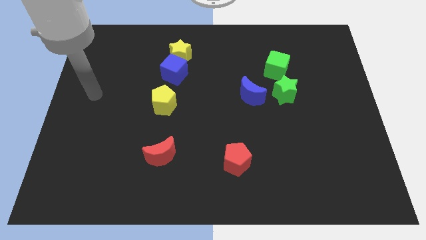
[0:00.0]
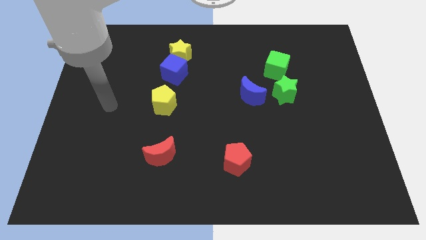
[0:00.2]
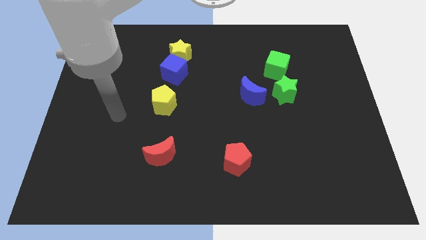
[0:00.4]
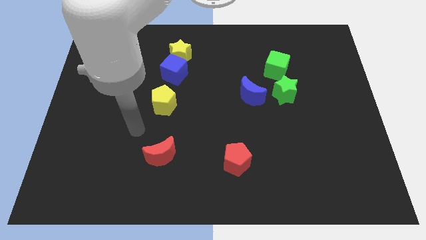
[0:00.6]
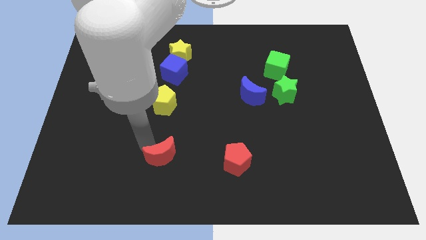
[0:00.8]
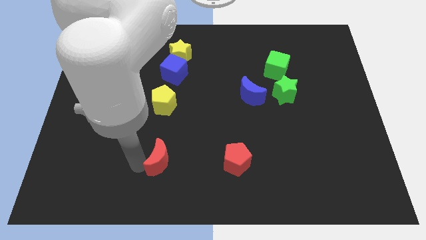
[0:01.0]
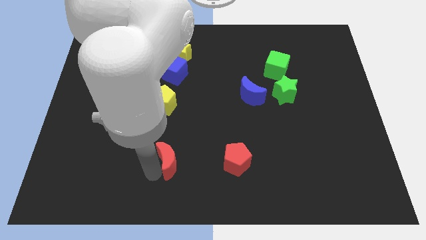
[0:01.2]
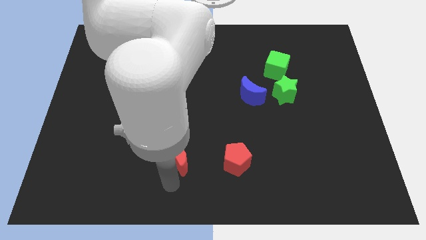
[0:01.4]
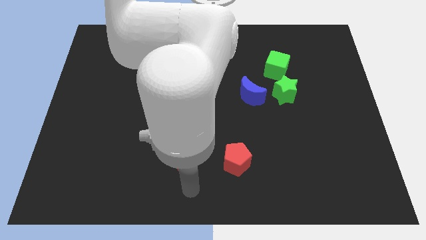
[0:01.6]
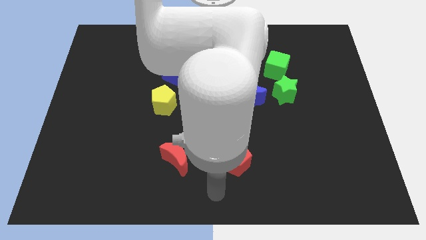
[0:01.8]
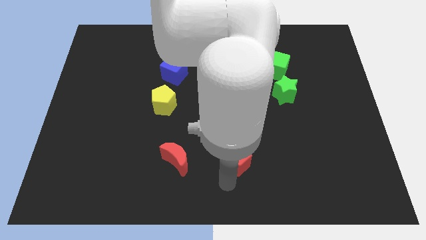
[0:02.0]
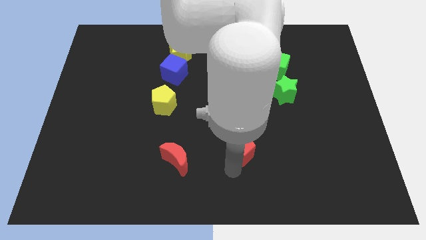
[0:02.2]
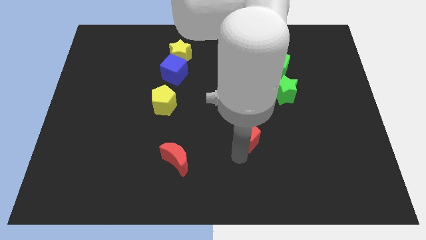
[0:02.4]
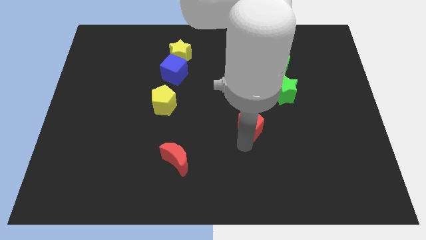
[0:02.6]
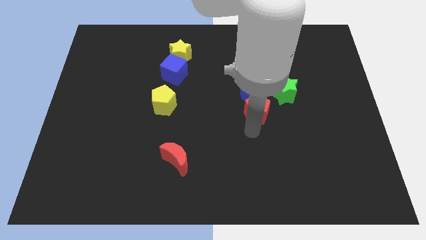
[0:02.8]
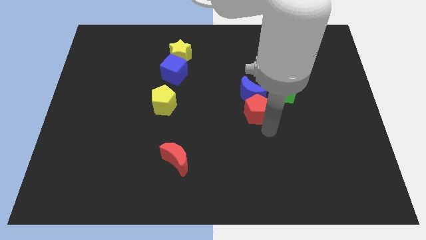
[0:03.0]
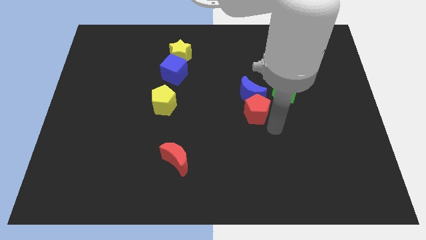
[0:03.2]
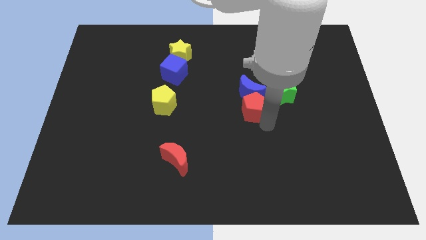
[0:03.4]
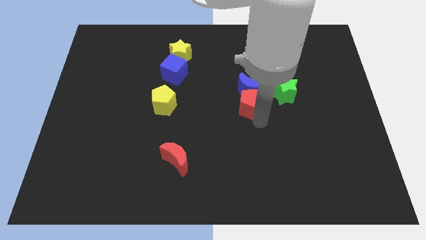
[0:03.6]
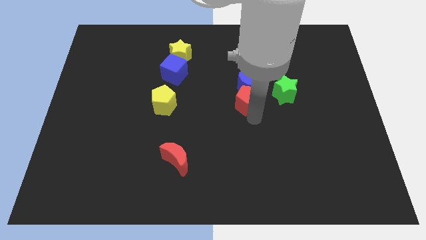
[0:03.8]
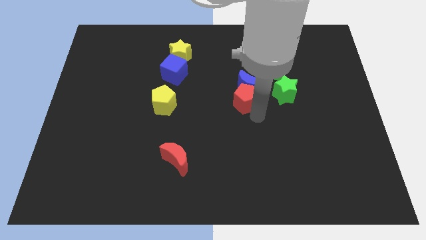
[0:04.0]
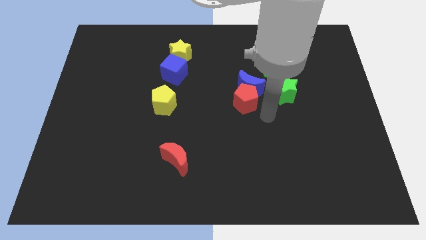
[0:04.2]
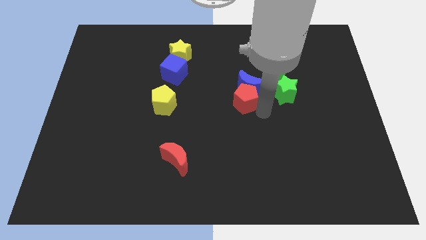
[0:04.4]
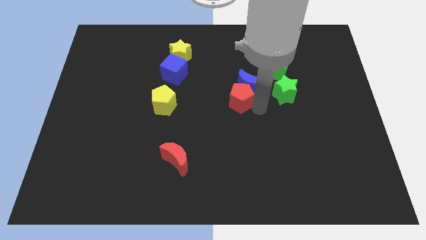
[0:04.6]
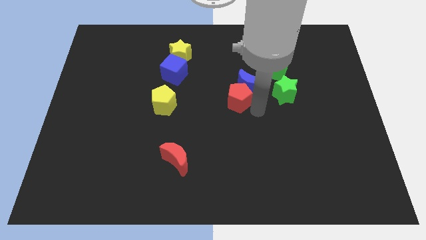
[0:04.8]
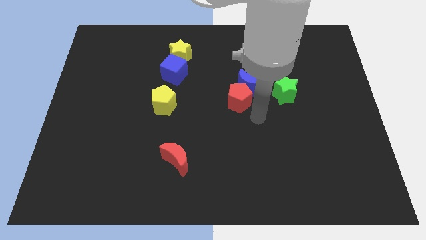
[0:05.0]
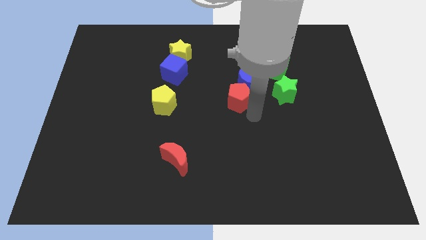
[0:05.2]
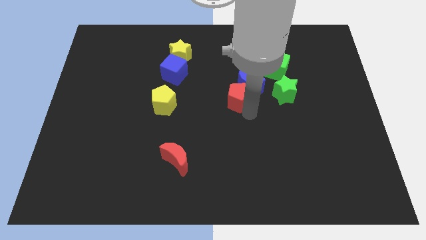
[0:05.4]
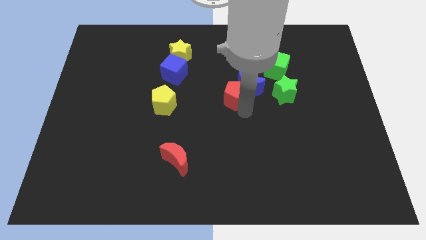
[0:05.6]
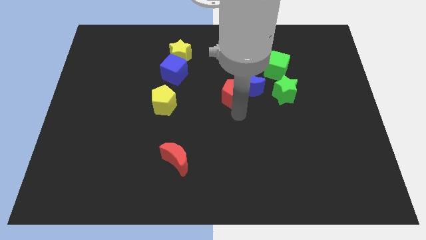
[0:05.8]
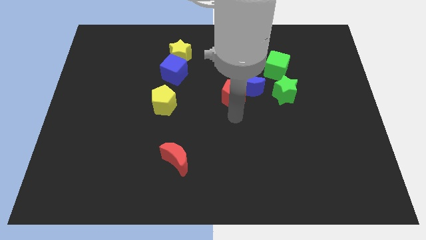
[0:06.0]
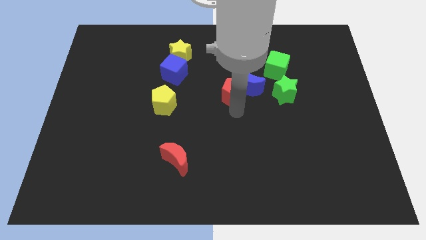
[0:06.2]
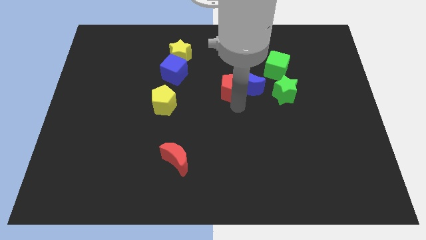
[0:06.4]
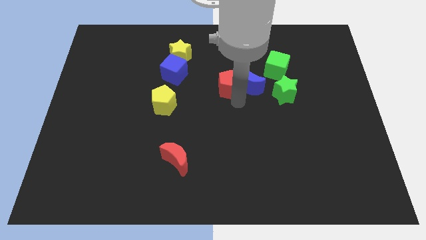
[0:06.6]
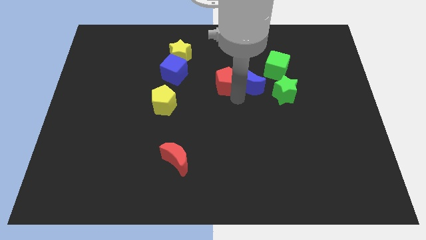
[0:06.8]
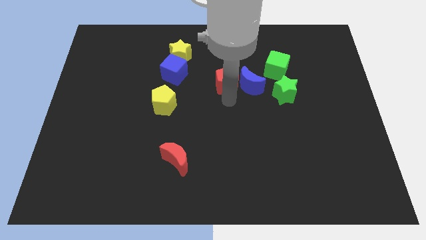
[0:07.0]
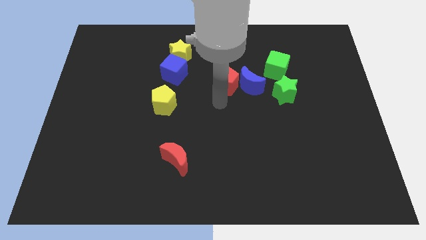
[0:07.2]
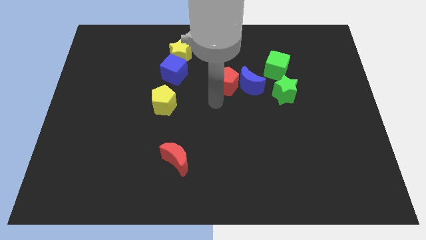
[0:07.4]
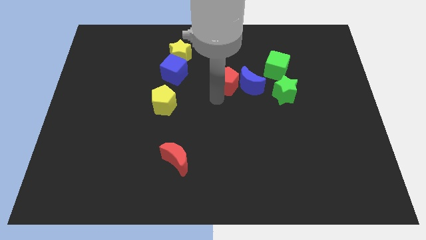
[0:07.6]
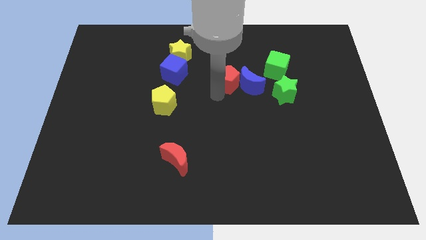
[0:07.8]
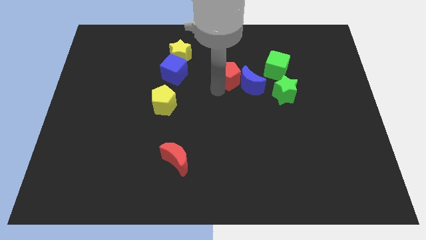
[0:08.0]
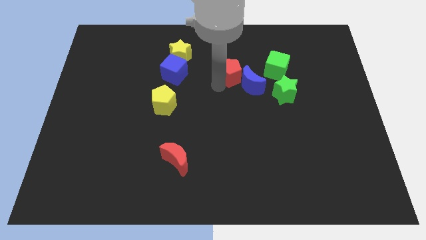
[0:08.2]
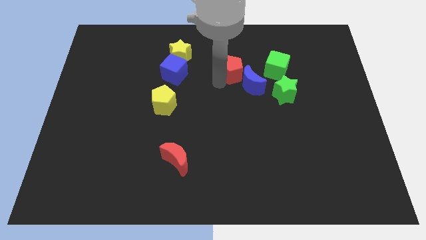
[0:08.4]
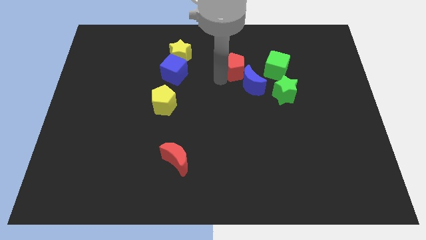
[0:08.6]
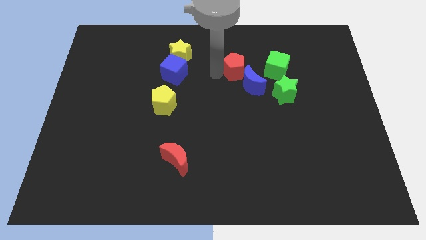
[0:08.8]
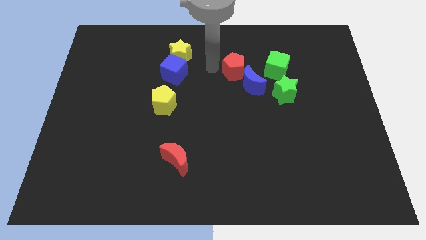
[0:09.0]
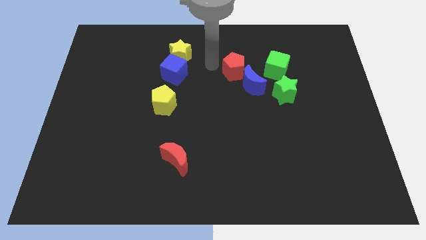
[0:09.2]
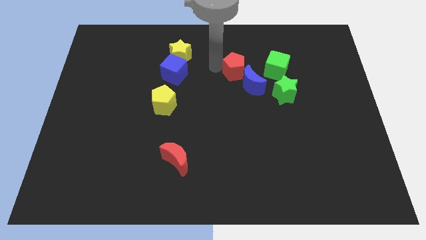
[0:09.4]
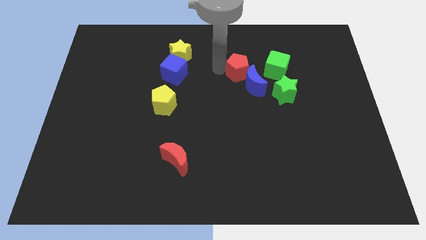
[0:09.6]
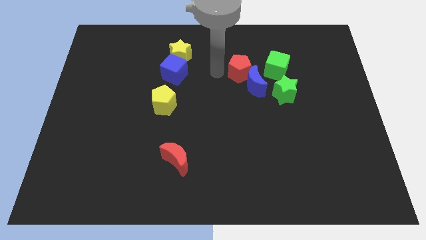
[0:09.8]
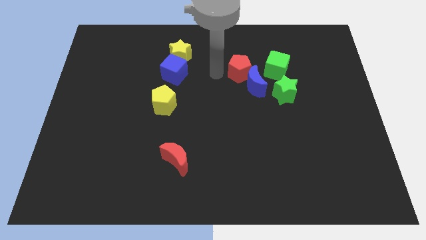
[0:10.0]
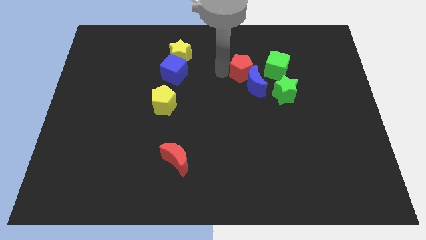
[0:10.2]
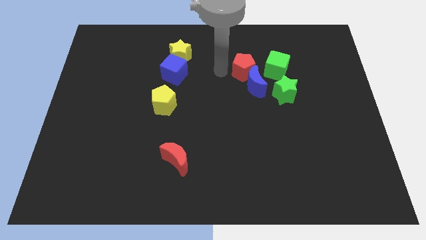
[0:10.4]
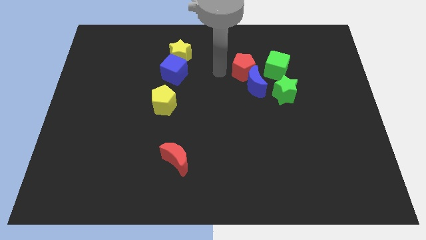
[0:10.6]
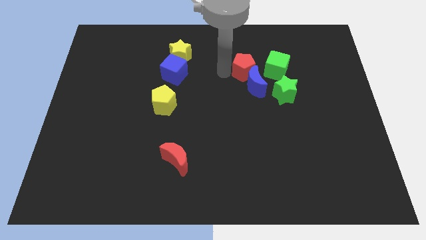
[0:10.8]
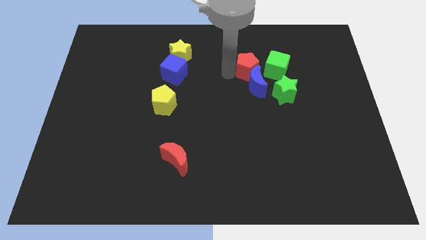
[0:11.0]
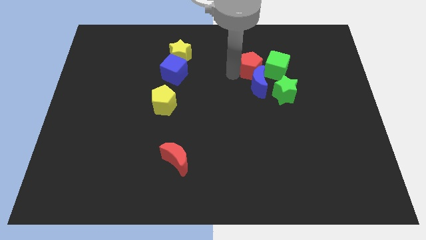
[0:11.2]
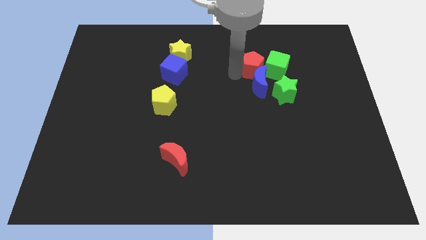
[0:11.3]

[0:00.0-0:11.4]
push the red pentagon next to the green cube

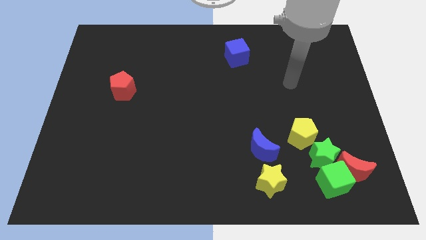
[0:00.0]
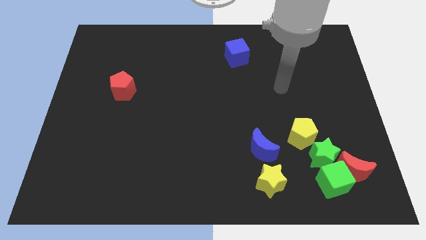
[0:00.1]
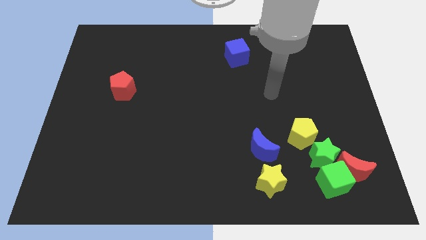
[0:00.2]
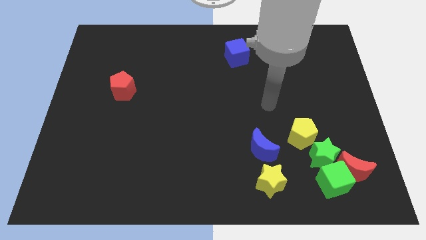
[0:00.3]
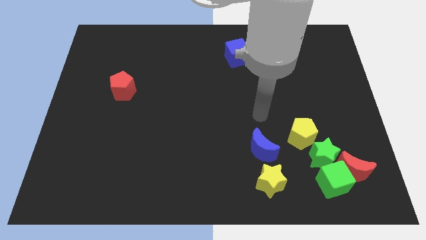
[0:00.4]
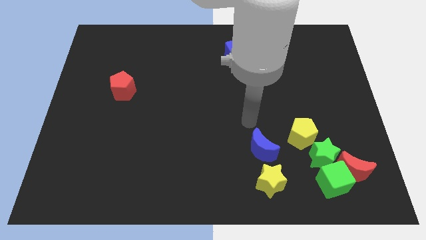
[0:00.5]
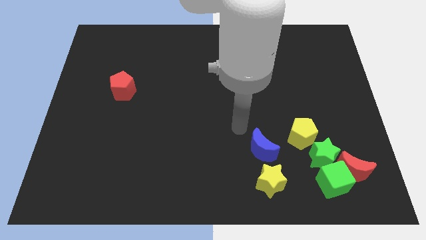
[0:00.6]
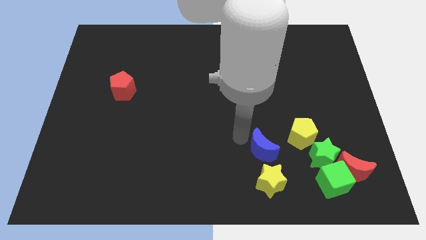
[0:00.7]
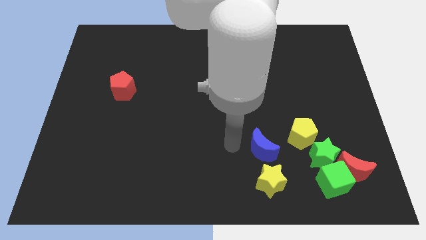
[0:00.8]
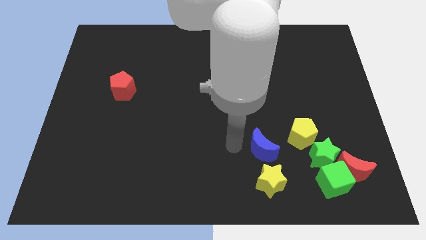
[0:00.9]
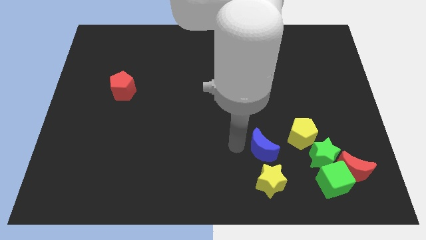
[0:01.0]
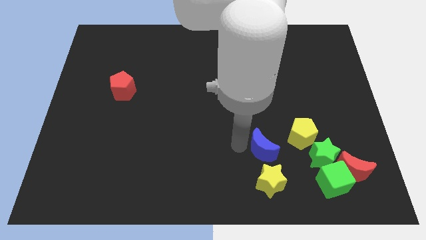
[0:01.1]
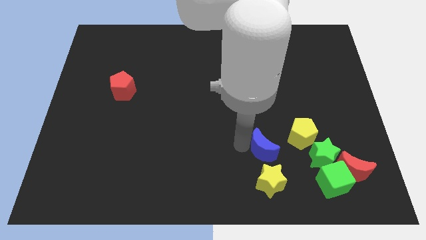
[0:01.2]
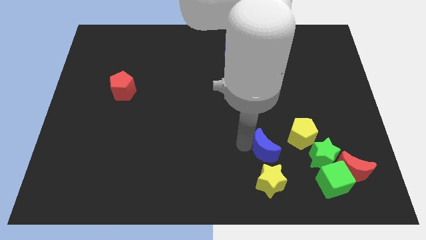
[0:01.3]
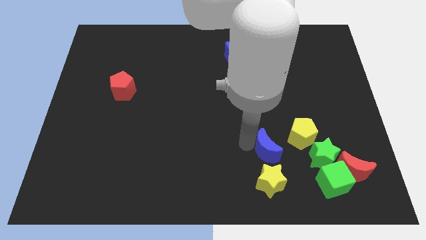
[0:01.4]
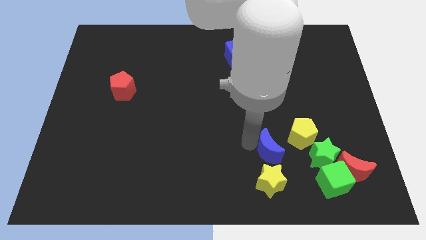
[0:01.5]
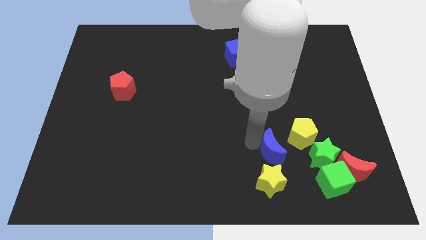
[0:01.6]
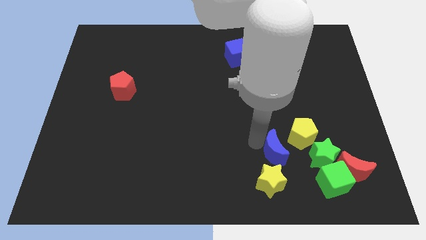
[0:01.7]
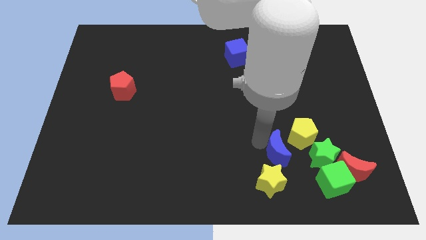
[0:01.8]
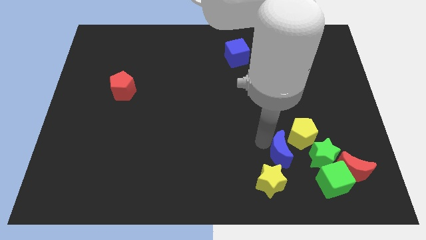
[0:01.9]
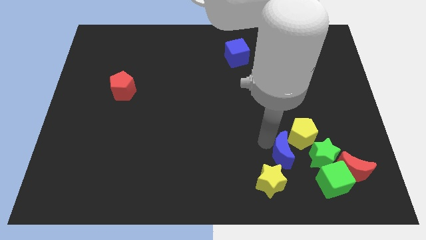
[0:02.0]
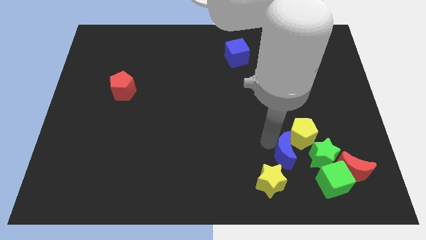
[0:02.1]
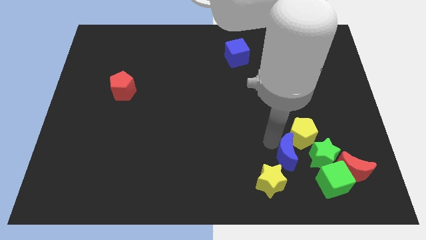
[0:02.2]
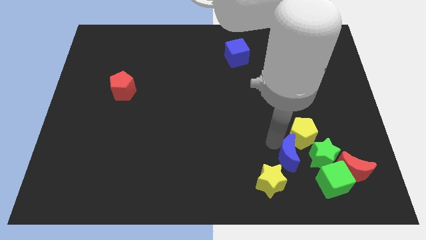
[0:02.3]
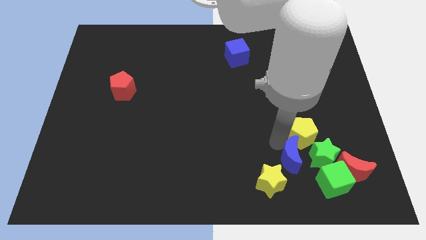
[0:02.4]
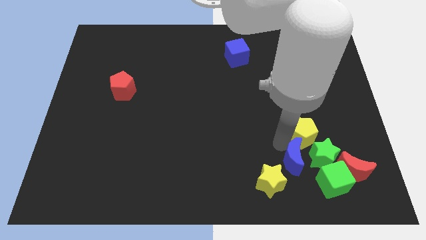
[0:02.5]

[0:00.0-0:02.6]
move the blue moon close to the green star
